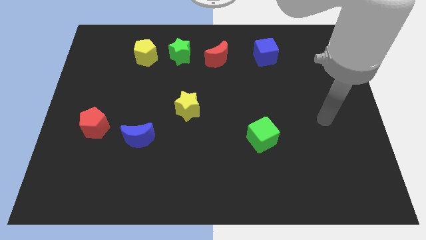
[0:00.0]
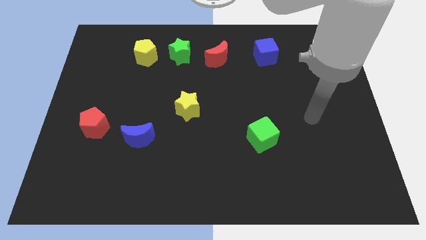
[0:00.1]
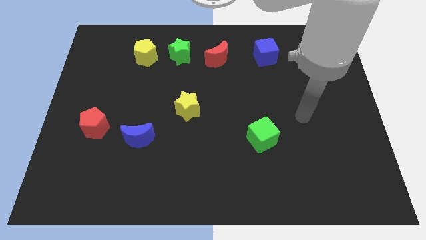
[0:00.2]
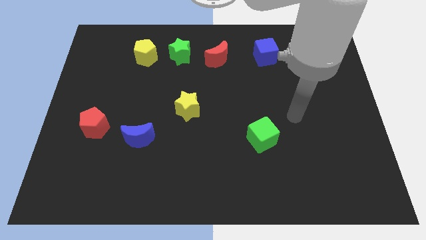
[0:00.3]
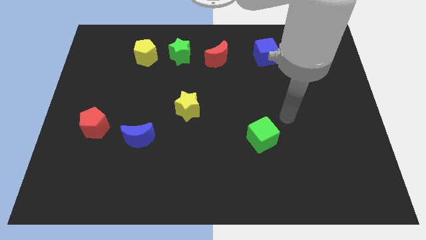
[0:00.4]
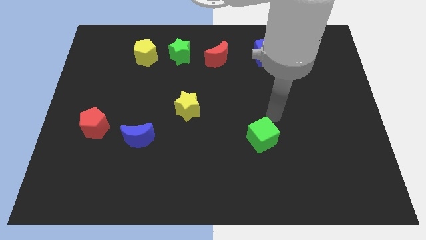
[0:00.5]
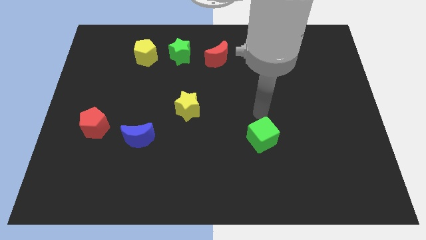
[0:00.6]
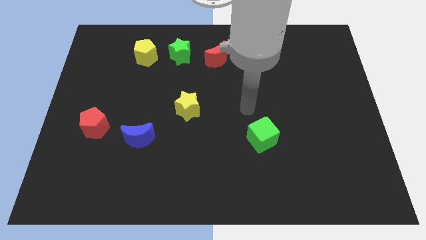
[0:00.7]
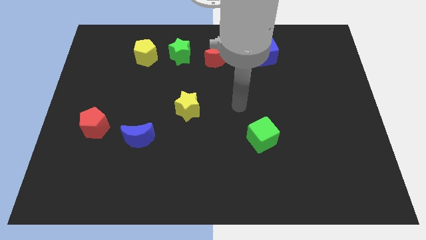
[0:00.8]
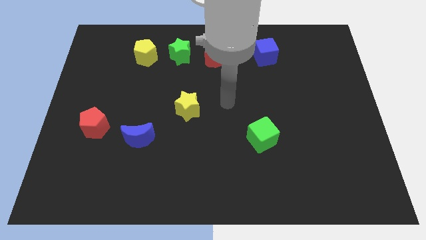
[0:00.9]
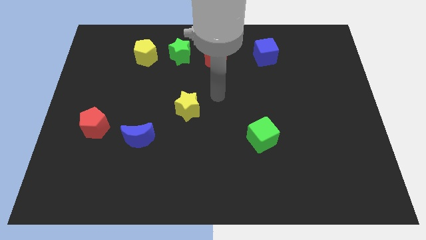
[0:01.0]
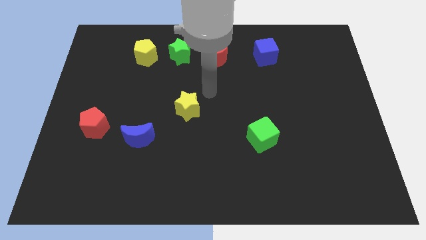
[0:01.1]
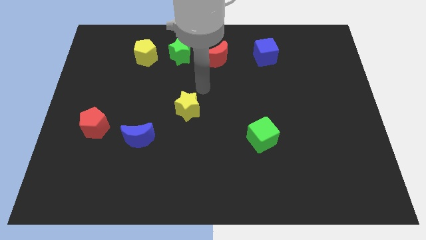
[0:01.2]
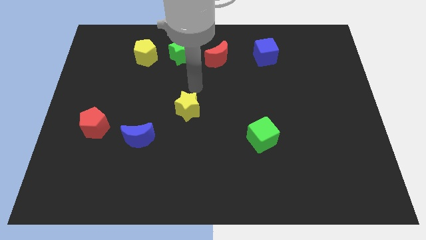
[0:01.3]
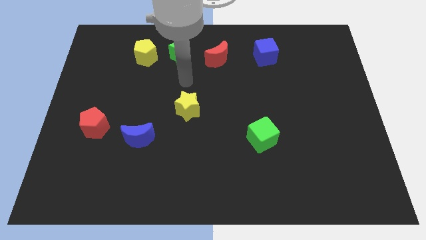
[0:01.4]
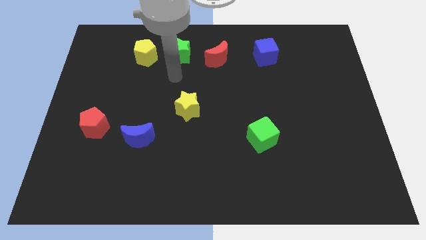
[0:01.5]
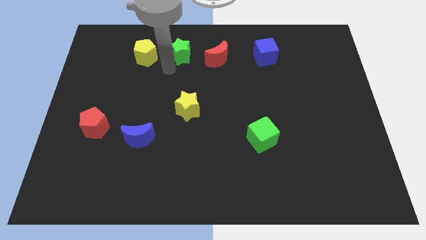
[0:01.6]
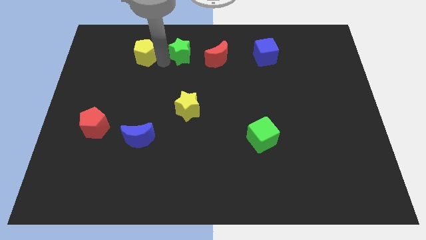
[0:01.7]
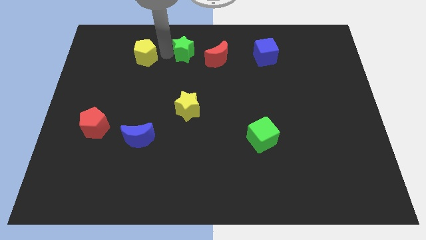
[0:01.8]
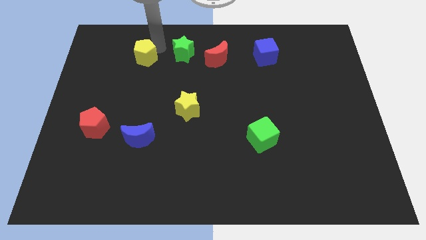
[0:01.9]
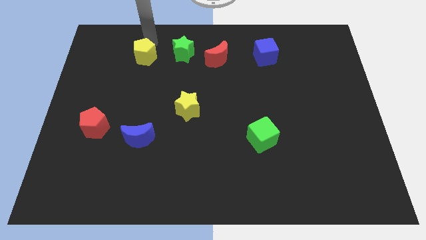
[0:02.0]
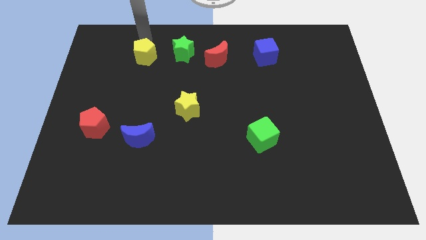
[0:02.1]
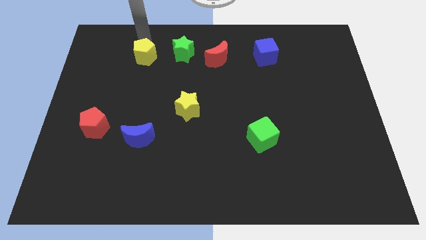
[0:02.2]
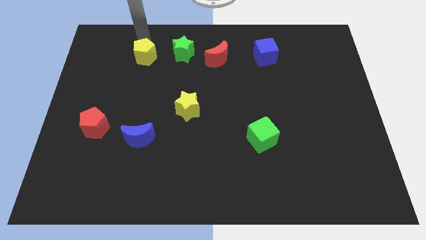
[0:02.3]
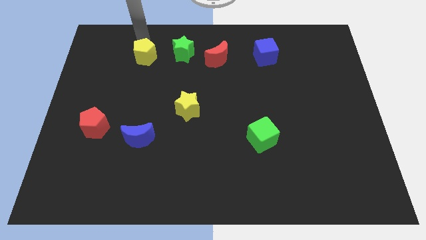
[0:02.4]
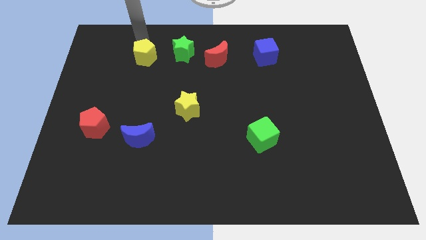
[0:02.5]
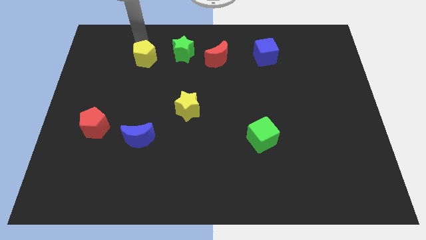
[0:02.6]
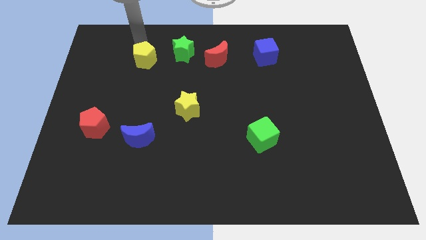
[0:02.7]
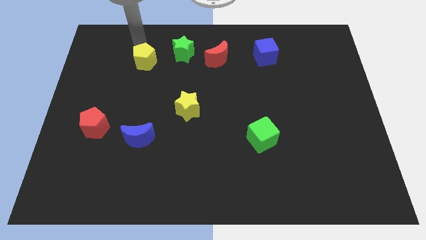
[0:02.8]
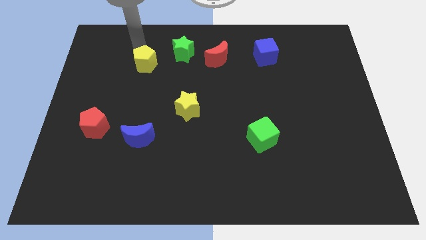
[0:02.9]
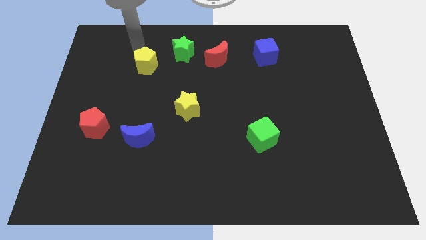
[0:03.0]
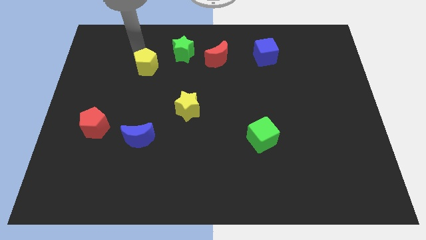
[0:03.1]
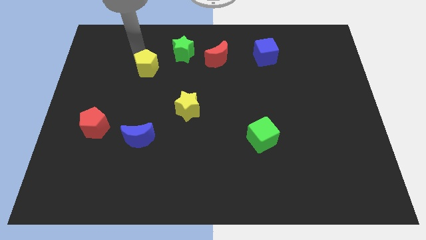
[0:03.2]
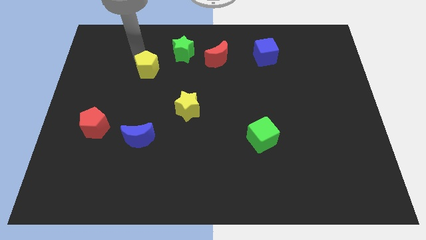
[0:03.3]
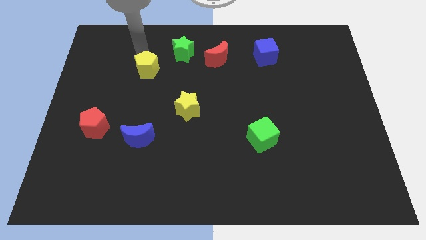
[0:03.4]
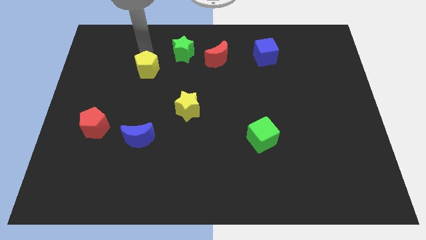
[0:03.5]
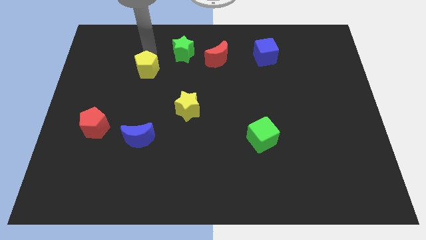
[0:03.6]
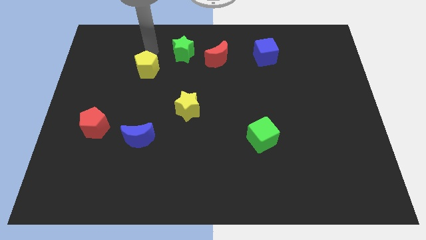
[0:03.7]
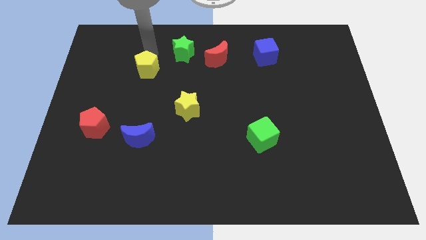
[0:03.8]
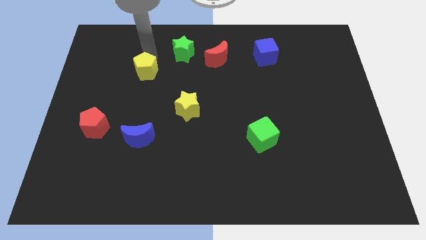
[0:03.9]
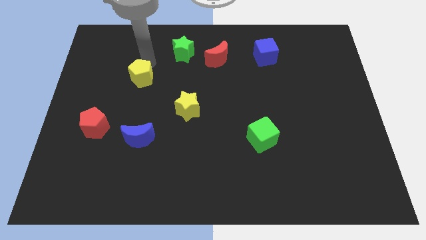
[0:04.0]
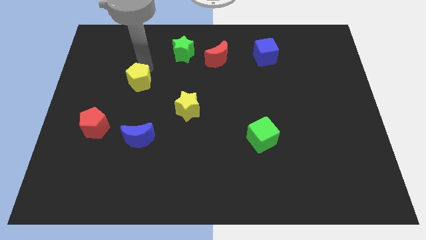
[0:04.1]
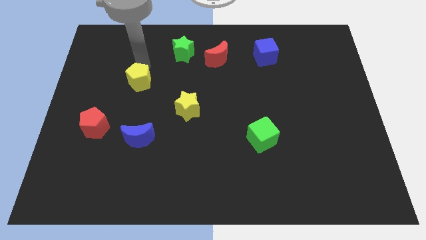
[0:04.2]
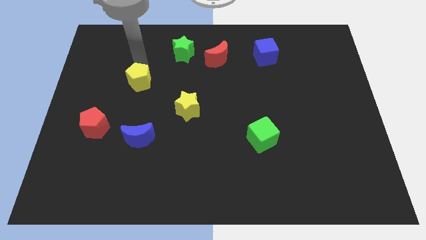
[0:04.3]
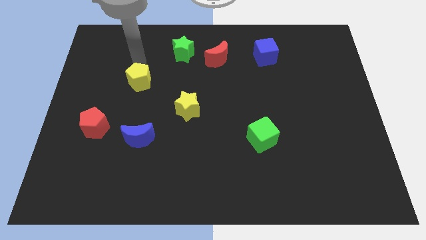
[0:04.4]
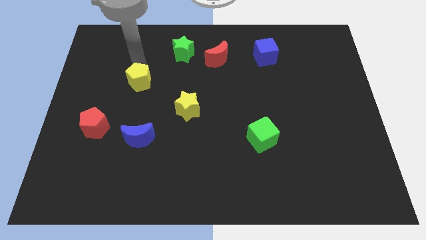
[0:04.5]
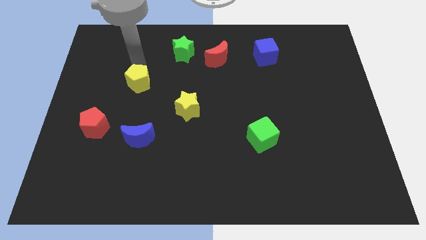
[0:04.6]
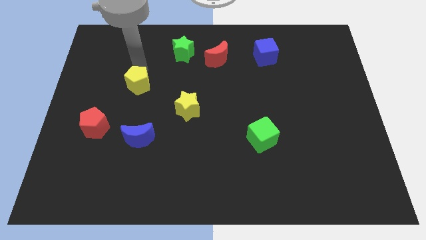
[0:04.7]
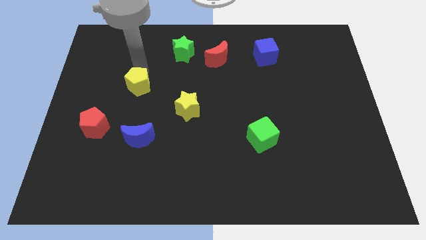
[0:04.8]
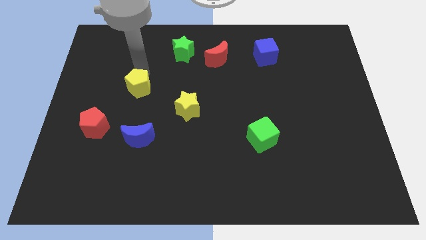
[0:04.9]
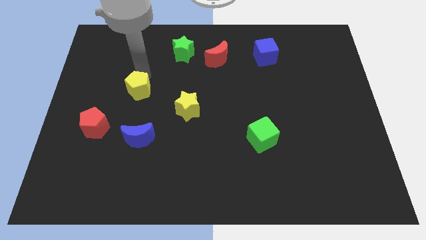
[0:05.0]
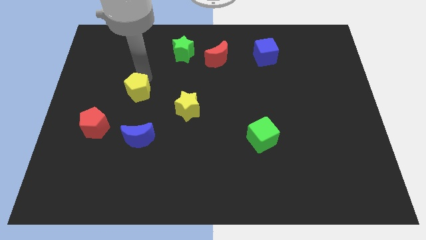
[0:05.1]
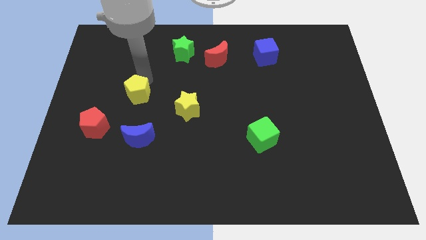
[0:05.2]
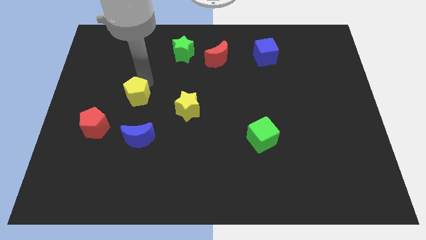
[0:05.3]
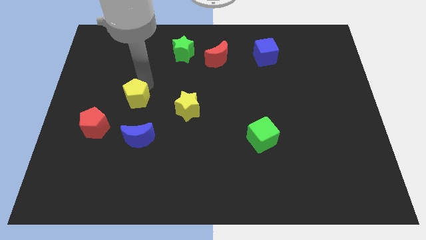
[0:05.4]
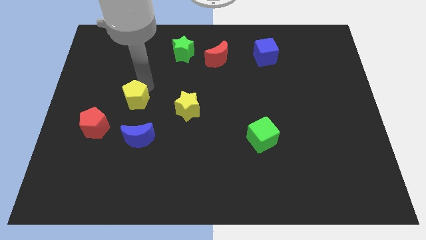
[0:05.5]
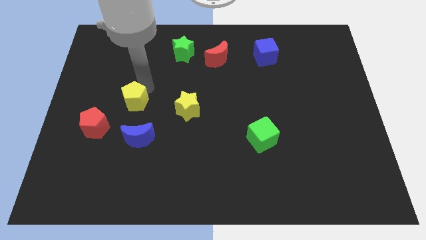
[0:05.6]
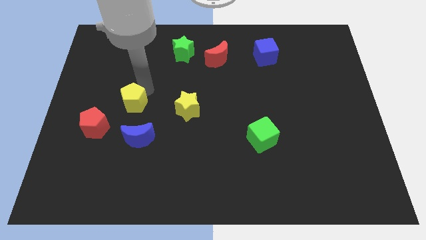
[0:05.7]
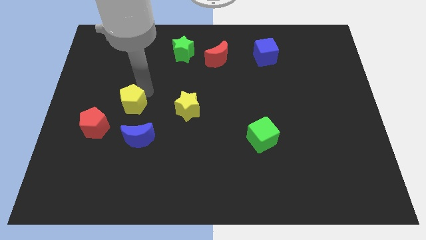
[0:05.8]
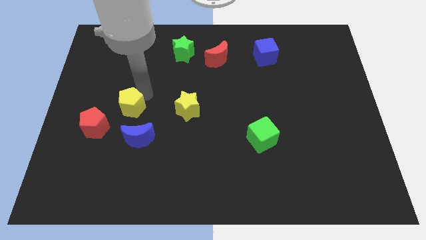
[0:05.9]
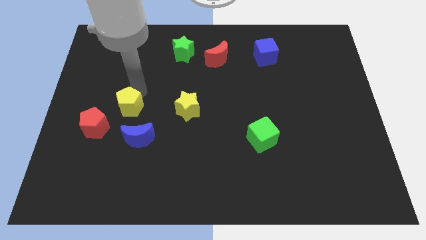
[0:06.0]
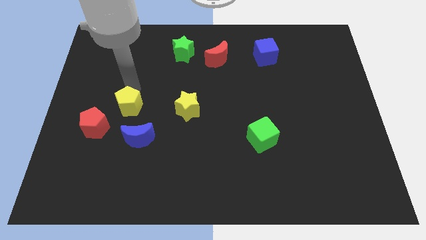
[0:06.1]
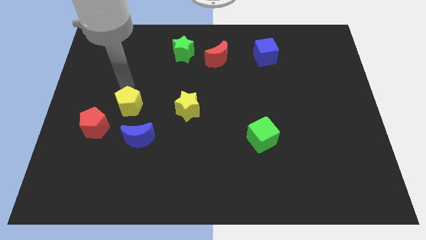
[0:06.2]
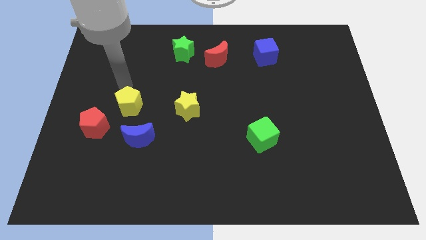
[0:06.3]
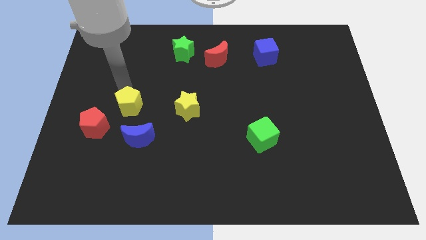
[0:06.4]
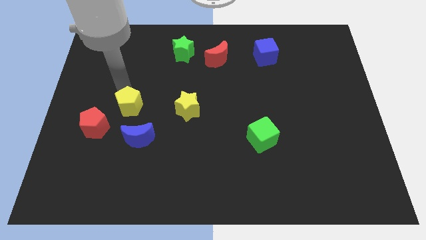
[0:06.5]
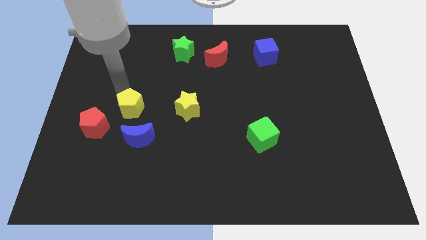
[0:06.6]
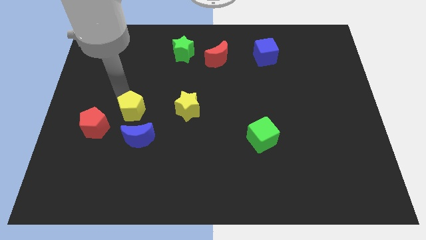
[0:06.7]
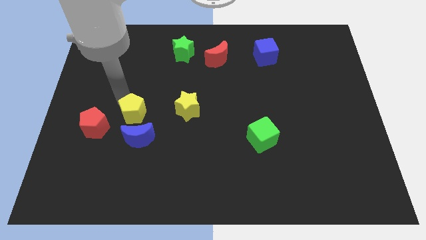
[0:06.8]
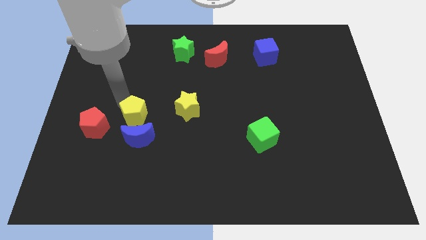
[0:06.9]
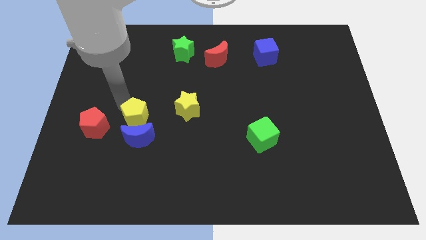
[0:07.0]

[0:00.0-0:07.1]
push the yellow pentagon close to the blue moon
